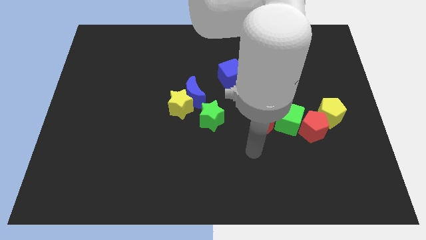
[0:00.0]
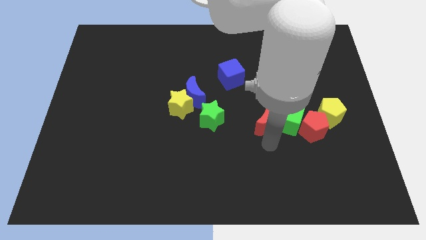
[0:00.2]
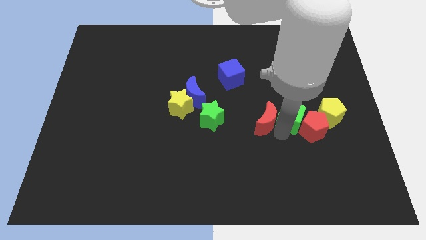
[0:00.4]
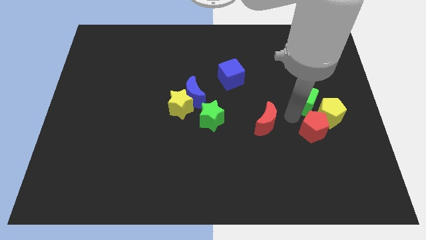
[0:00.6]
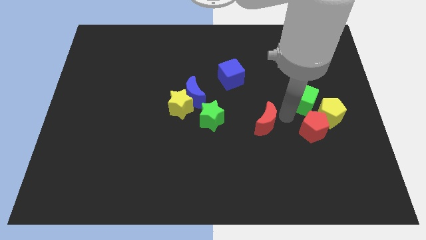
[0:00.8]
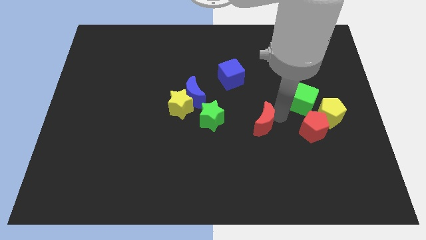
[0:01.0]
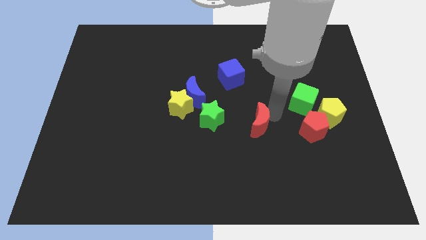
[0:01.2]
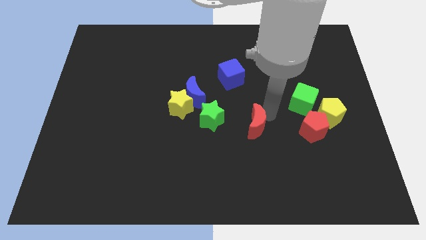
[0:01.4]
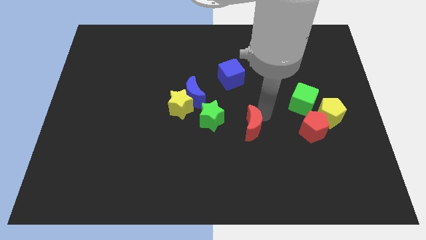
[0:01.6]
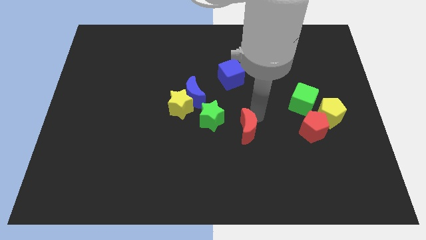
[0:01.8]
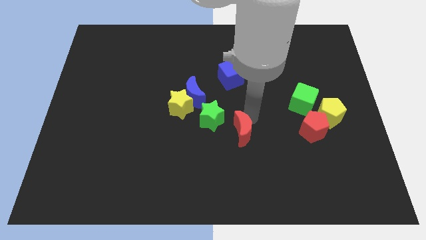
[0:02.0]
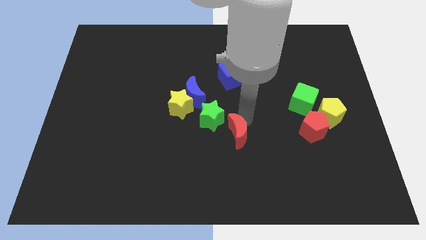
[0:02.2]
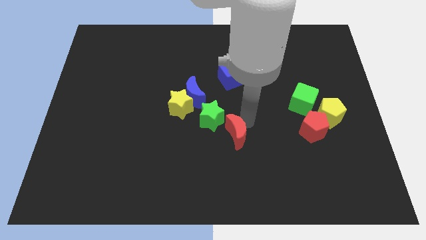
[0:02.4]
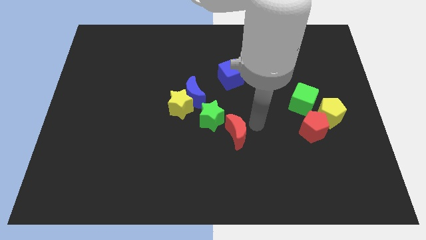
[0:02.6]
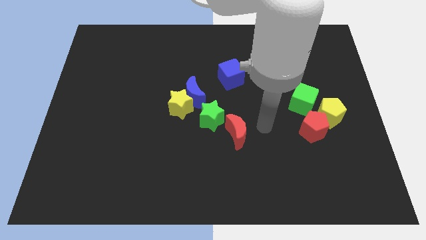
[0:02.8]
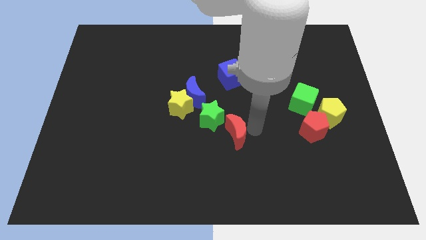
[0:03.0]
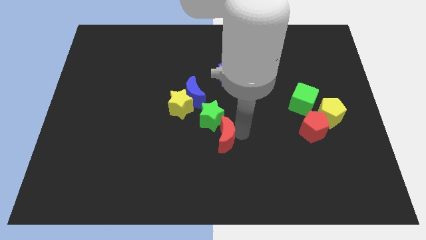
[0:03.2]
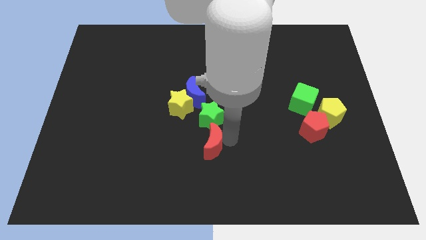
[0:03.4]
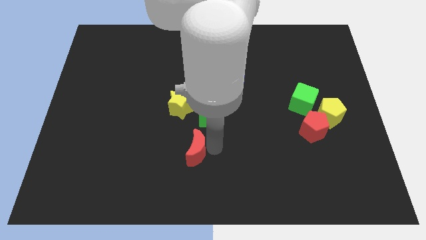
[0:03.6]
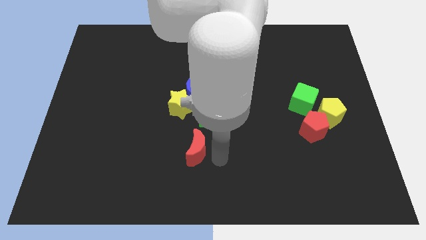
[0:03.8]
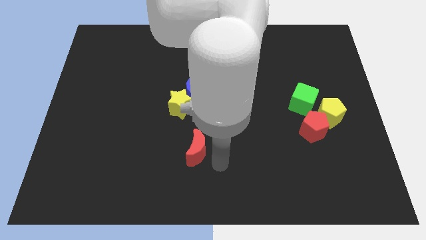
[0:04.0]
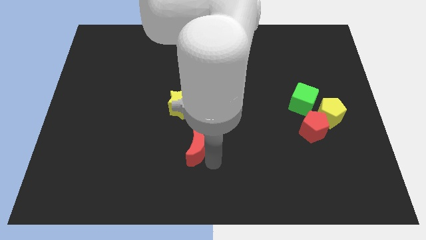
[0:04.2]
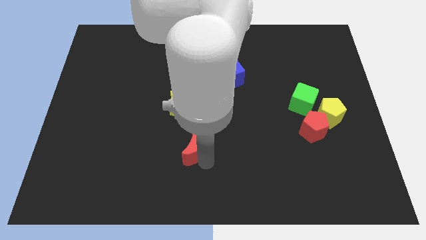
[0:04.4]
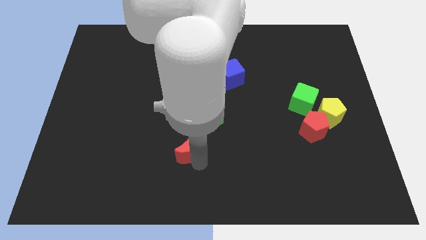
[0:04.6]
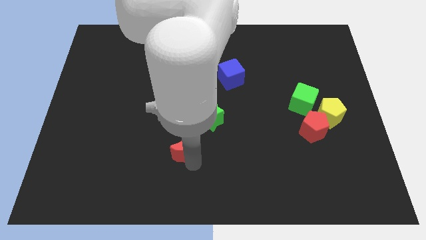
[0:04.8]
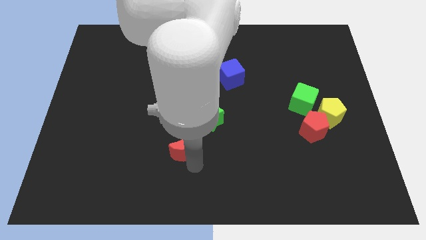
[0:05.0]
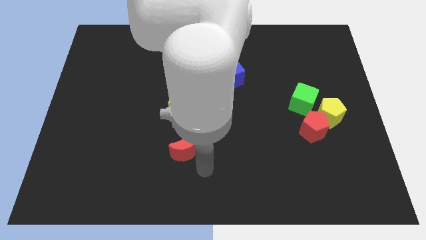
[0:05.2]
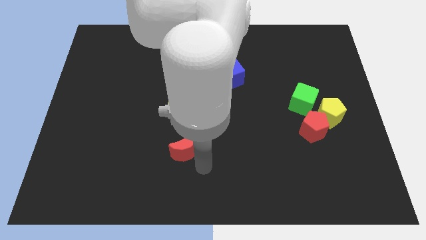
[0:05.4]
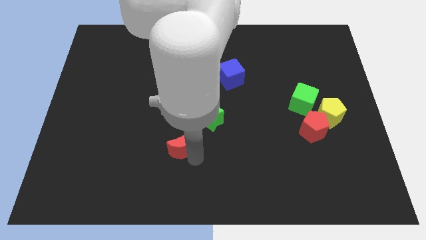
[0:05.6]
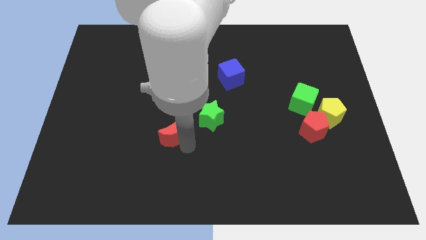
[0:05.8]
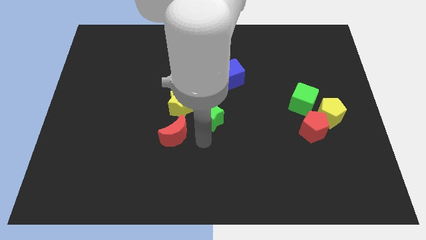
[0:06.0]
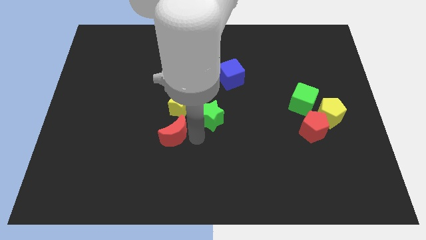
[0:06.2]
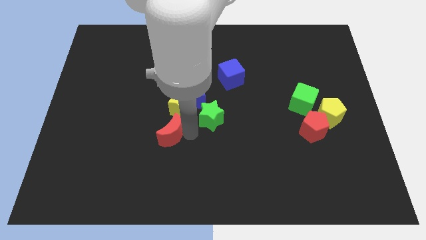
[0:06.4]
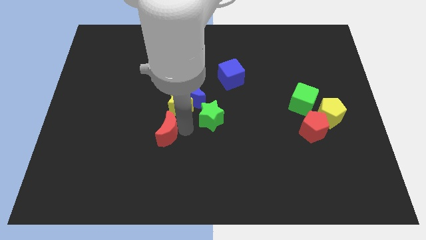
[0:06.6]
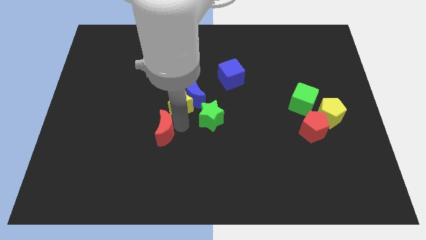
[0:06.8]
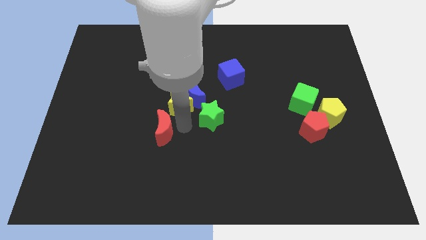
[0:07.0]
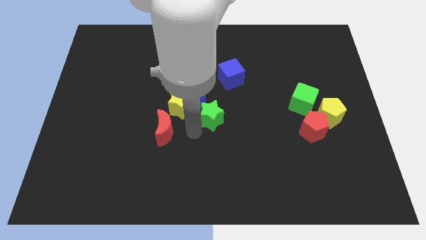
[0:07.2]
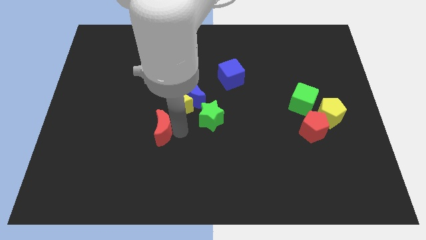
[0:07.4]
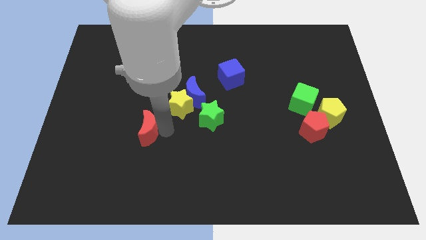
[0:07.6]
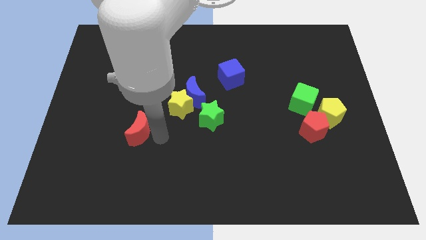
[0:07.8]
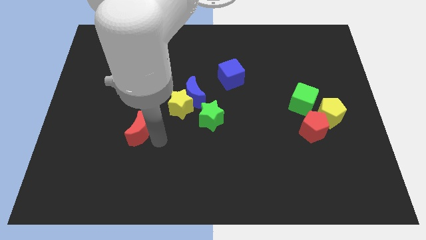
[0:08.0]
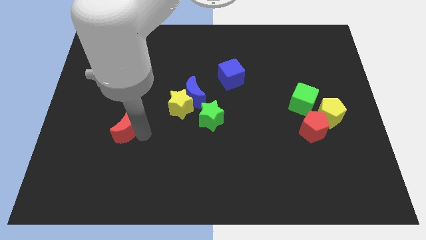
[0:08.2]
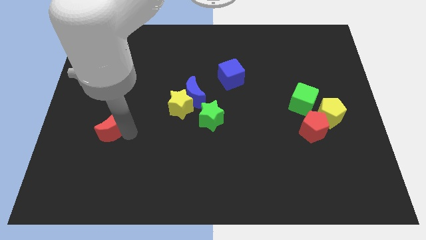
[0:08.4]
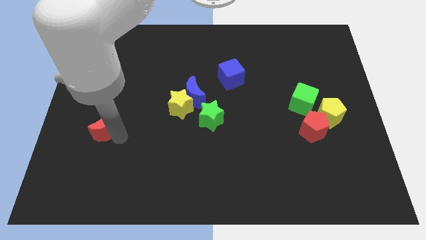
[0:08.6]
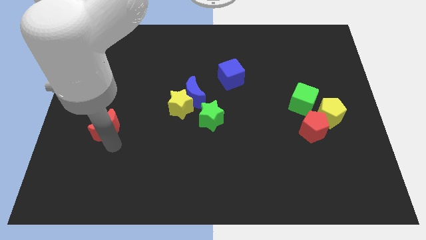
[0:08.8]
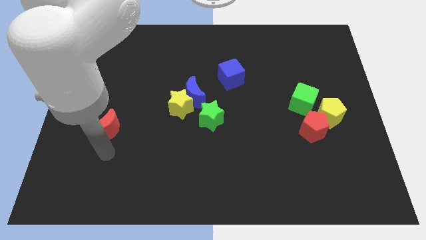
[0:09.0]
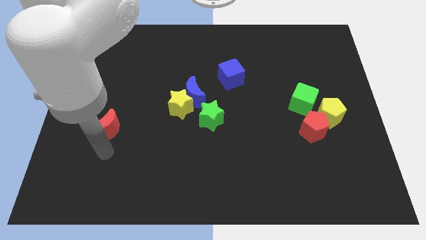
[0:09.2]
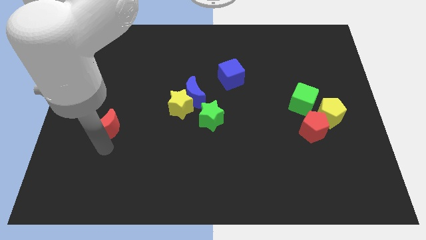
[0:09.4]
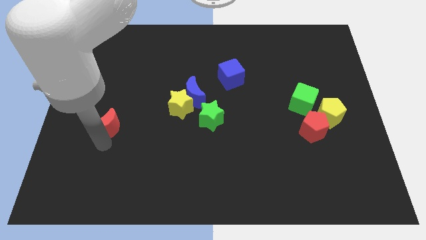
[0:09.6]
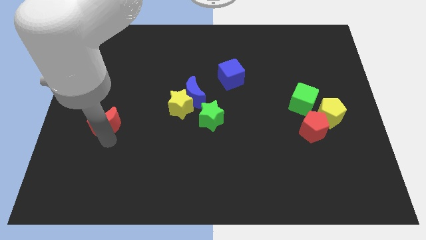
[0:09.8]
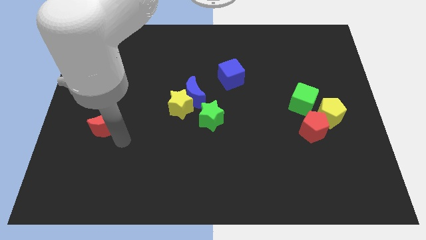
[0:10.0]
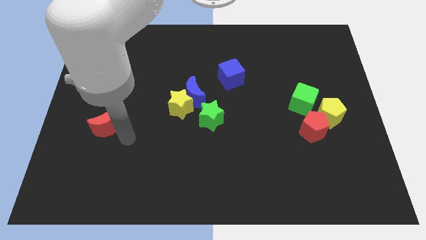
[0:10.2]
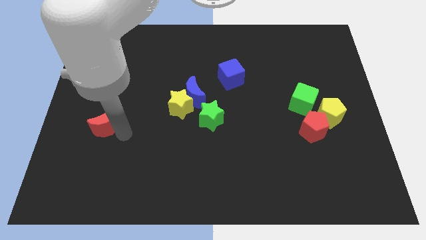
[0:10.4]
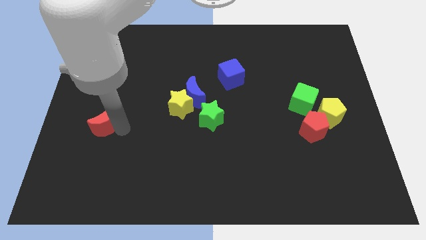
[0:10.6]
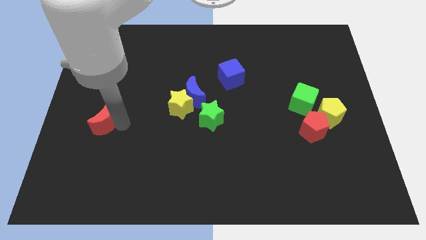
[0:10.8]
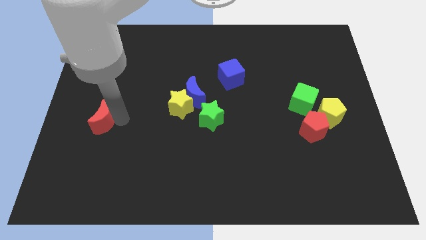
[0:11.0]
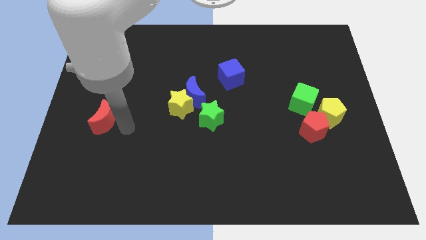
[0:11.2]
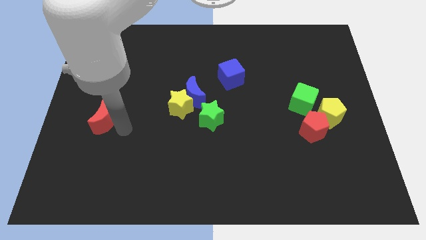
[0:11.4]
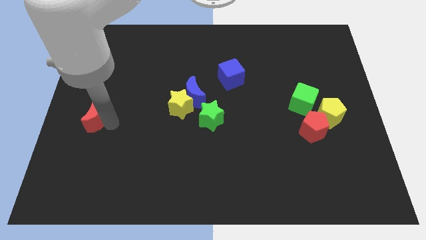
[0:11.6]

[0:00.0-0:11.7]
slide the red moon to the center left

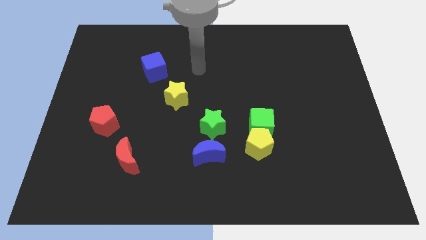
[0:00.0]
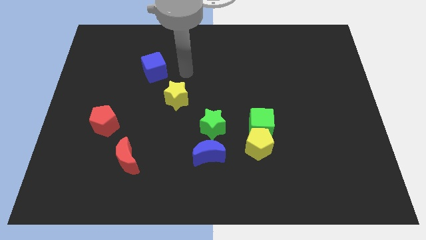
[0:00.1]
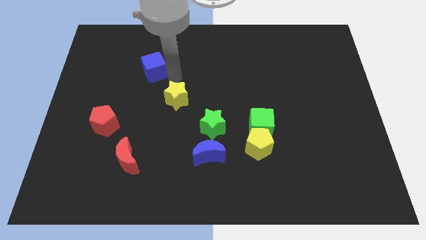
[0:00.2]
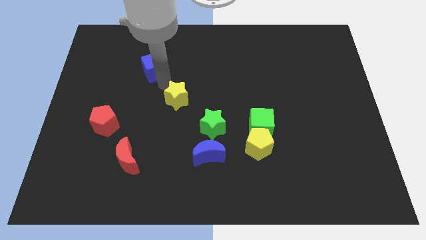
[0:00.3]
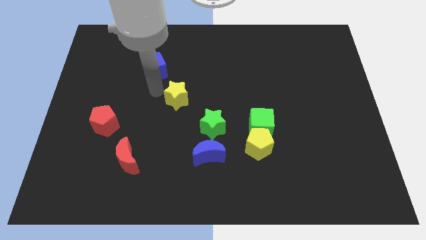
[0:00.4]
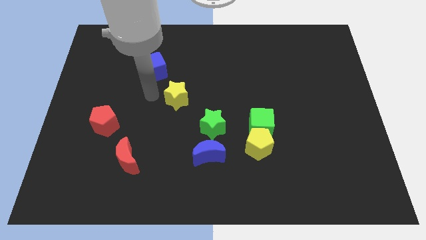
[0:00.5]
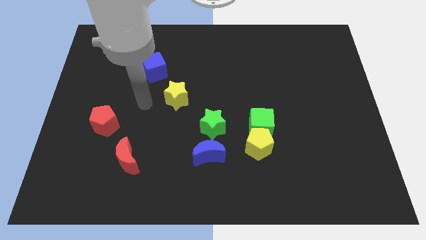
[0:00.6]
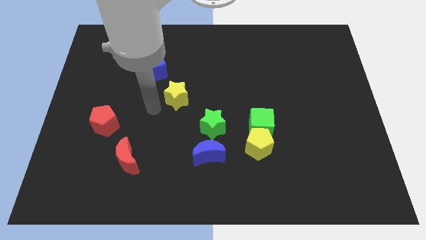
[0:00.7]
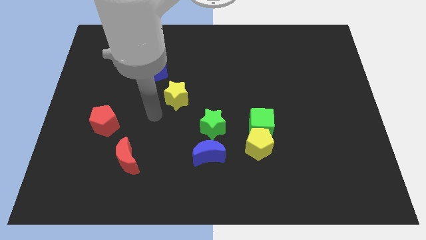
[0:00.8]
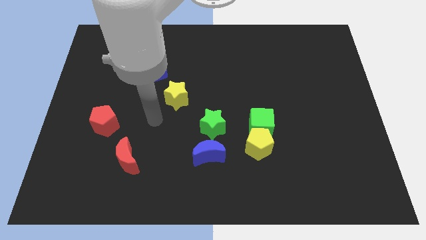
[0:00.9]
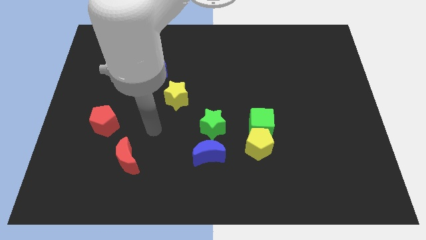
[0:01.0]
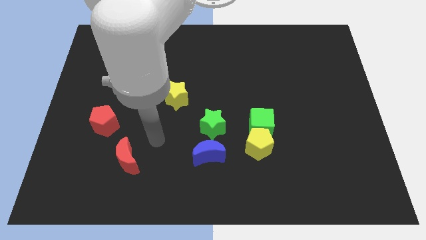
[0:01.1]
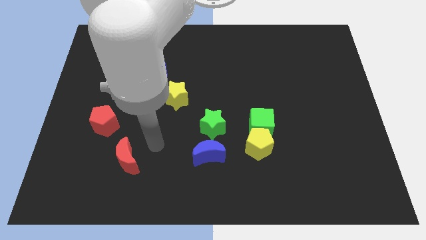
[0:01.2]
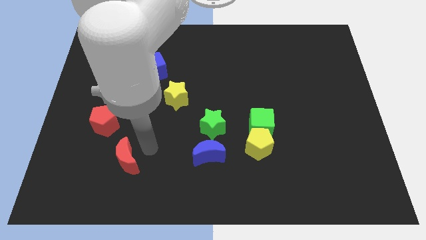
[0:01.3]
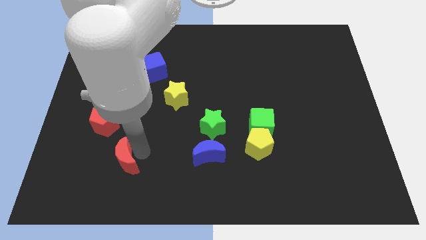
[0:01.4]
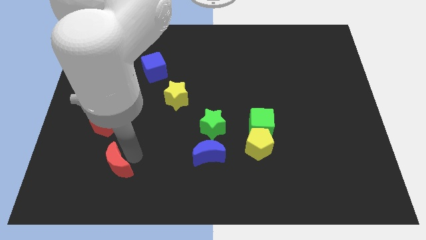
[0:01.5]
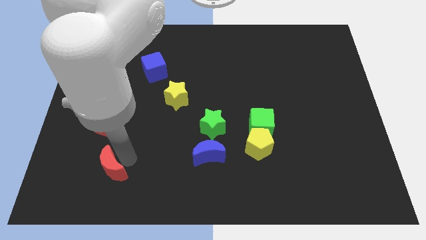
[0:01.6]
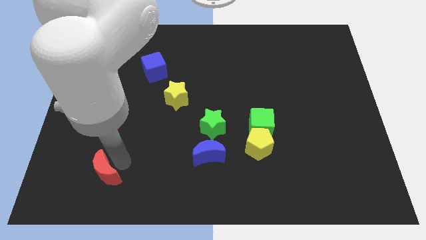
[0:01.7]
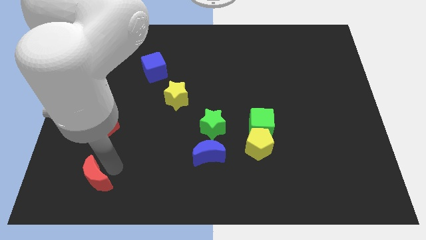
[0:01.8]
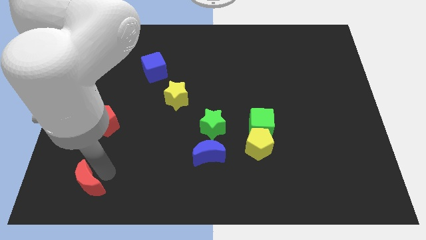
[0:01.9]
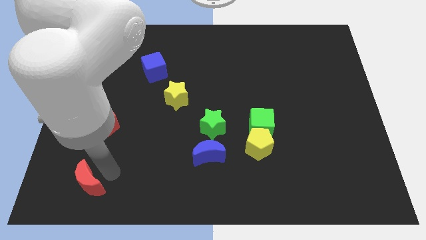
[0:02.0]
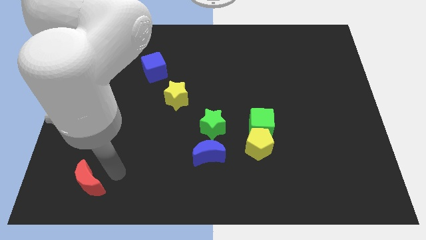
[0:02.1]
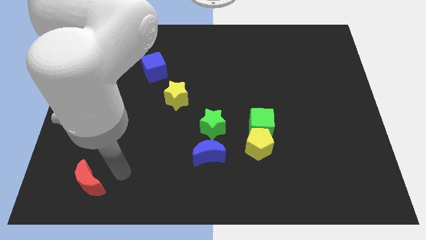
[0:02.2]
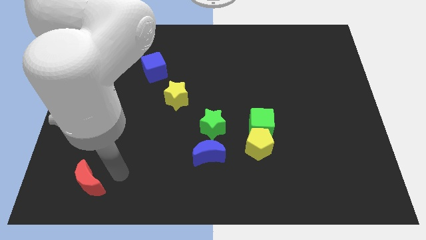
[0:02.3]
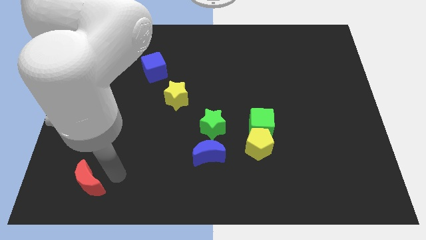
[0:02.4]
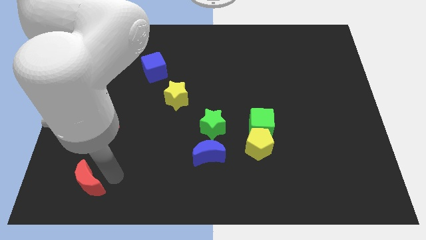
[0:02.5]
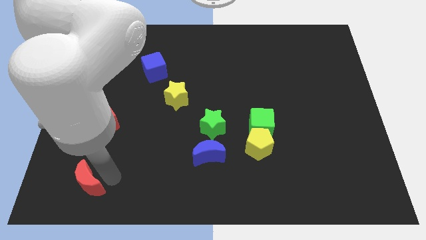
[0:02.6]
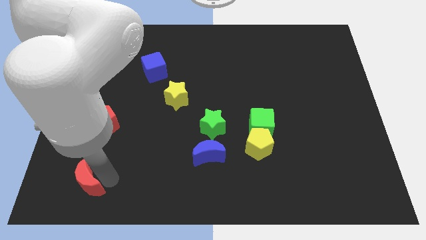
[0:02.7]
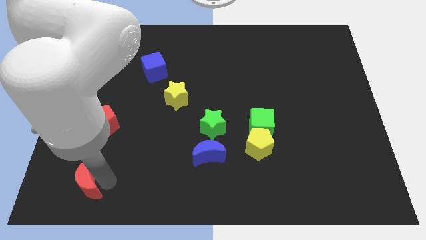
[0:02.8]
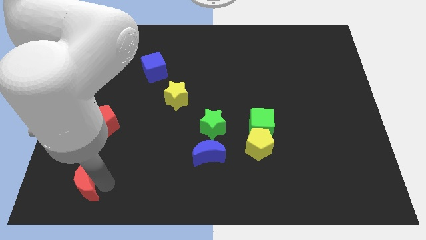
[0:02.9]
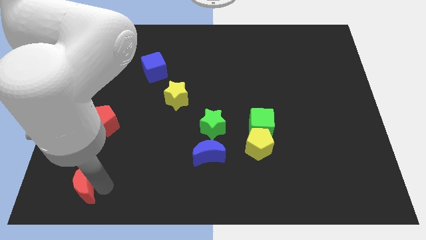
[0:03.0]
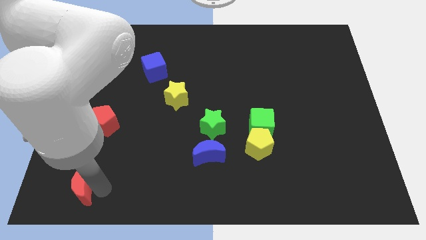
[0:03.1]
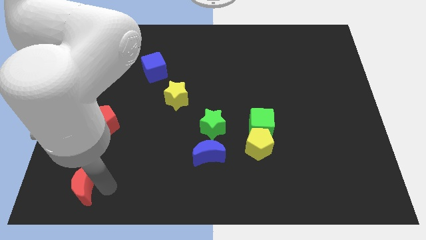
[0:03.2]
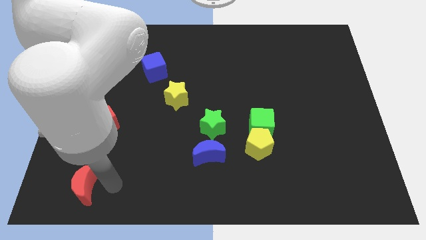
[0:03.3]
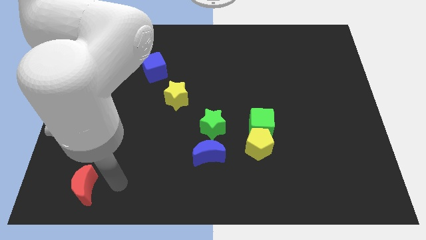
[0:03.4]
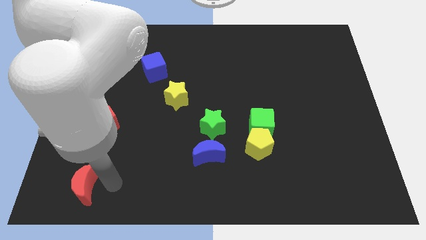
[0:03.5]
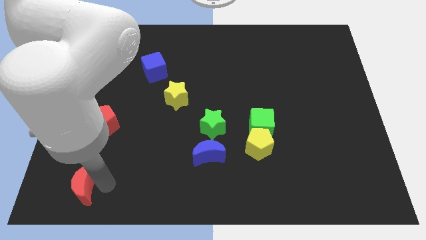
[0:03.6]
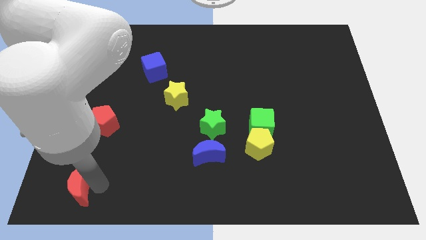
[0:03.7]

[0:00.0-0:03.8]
move the red moon to the bottom left corner
